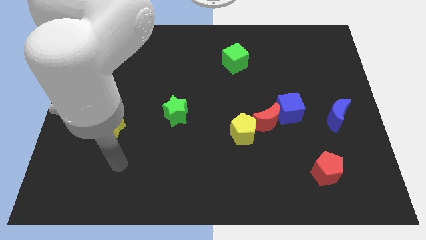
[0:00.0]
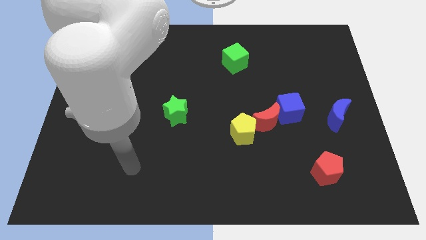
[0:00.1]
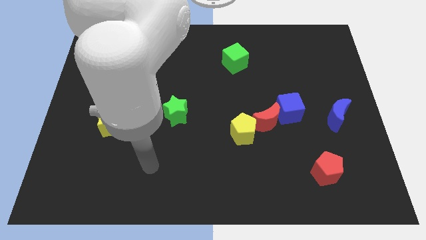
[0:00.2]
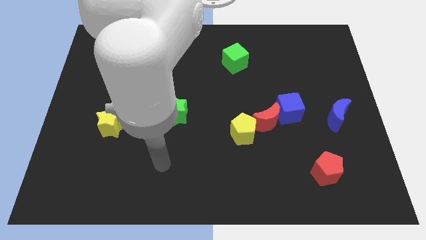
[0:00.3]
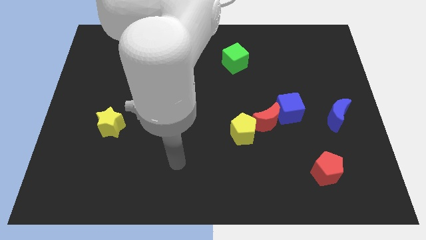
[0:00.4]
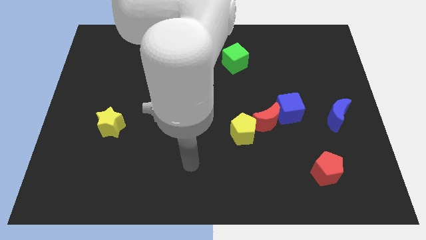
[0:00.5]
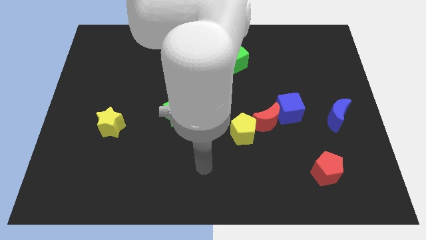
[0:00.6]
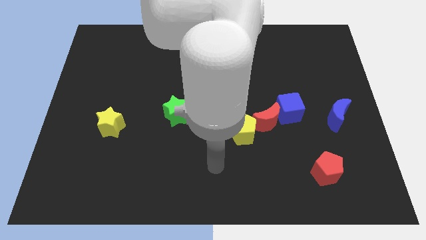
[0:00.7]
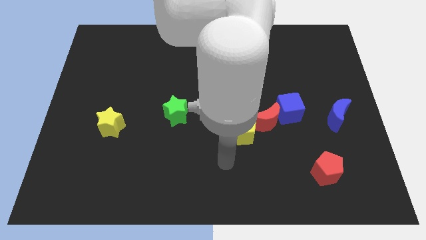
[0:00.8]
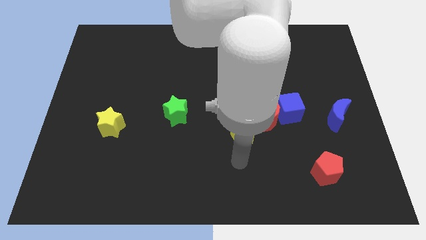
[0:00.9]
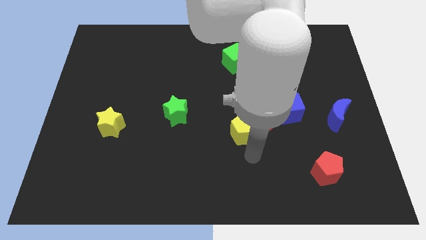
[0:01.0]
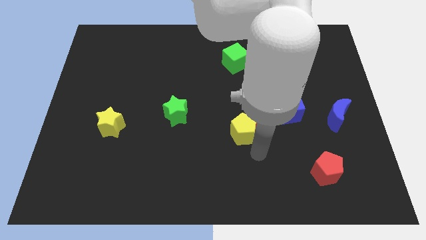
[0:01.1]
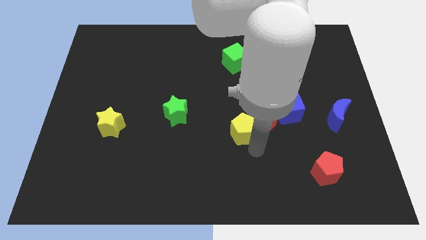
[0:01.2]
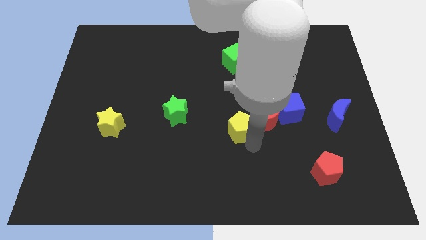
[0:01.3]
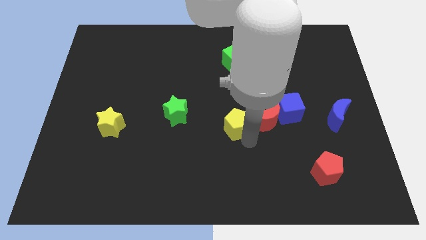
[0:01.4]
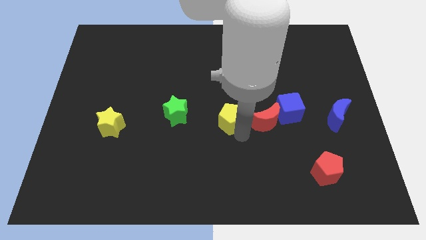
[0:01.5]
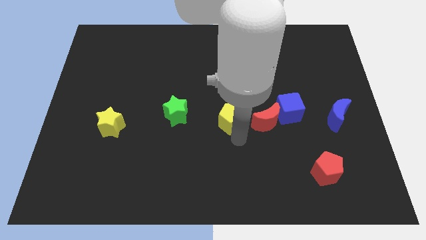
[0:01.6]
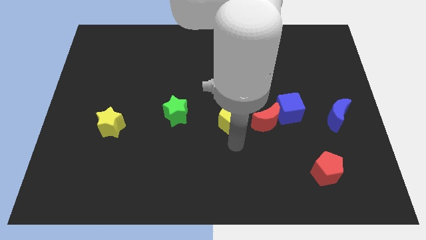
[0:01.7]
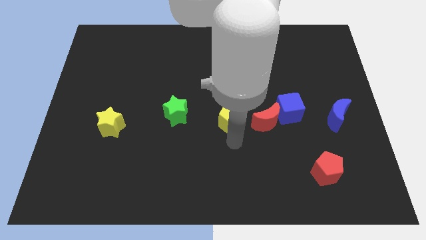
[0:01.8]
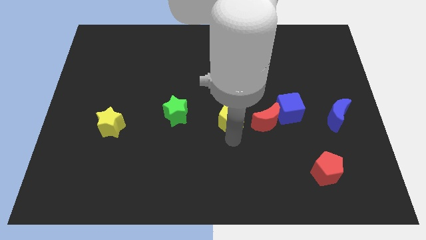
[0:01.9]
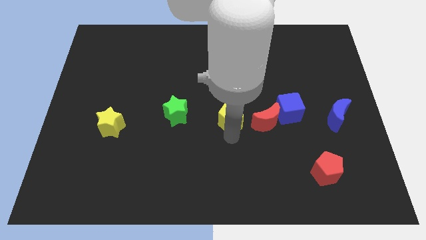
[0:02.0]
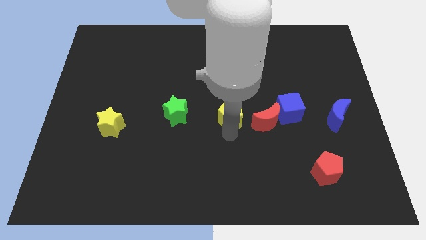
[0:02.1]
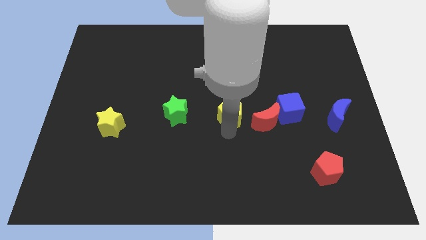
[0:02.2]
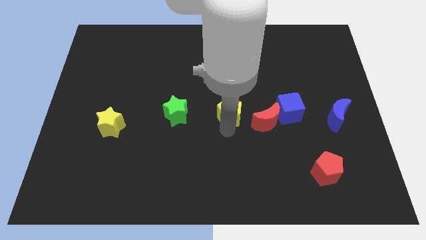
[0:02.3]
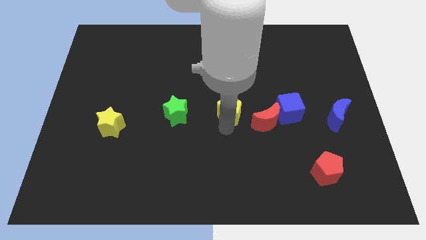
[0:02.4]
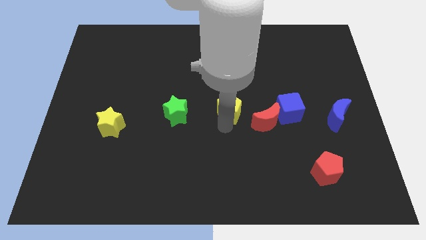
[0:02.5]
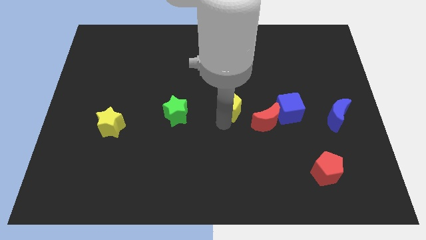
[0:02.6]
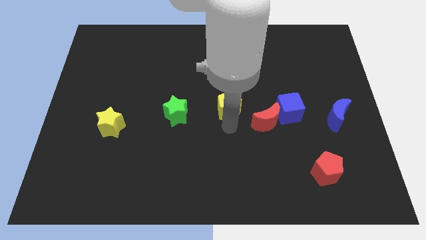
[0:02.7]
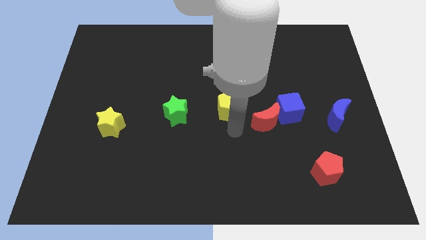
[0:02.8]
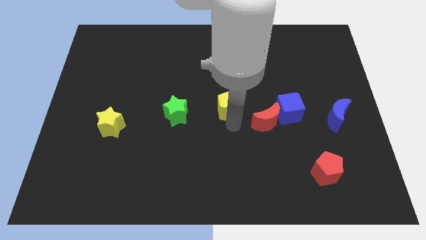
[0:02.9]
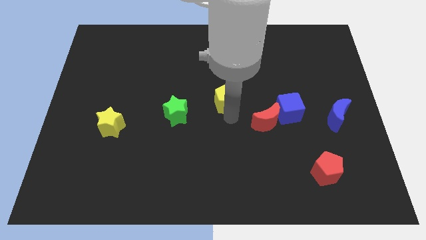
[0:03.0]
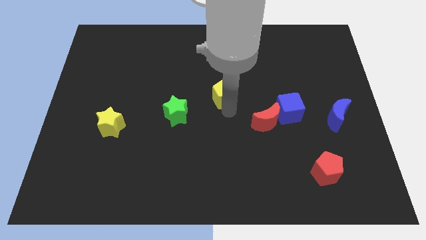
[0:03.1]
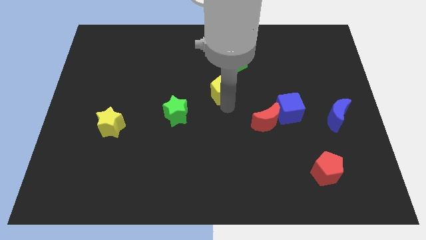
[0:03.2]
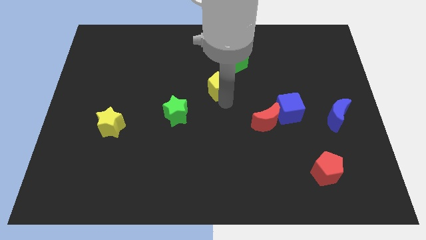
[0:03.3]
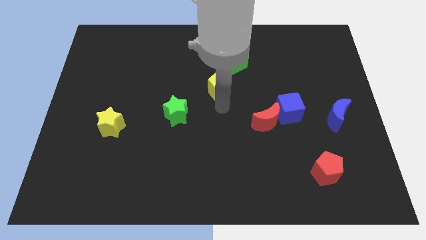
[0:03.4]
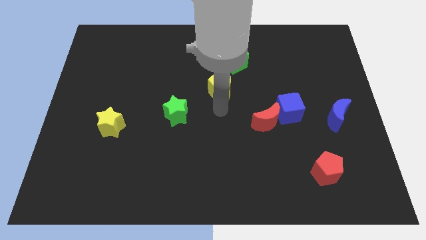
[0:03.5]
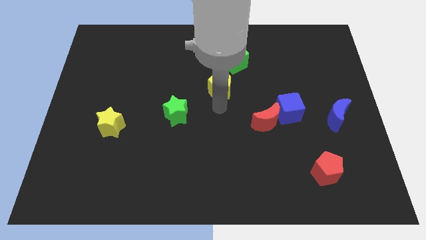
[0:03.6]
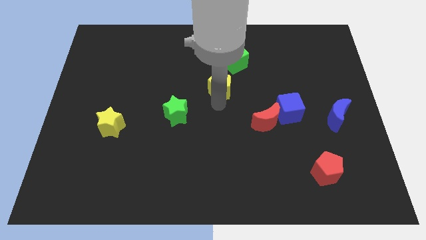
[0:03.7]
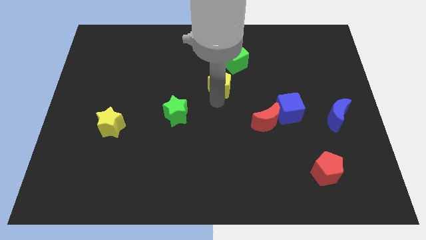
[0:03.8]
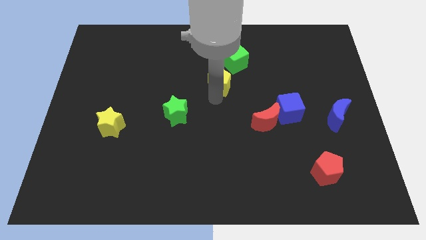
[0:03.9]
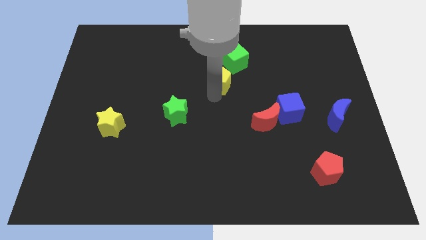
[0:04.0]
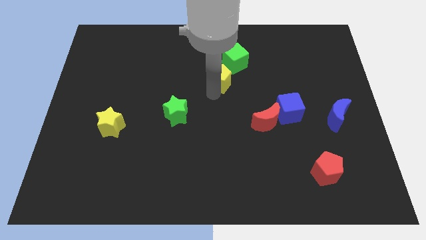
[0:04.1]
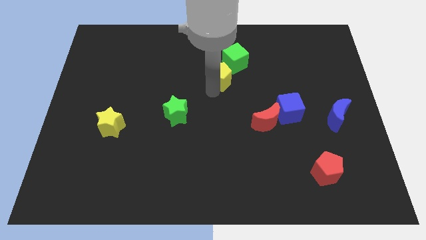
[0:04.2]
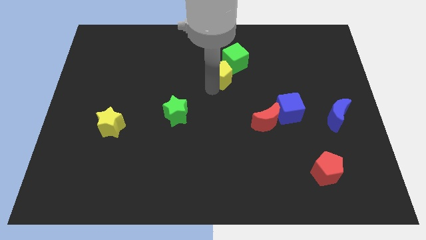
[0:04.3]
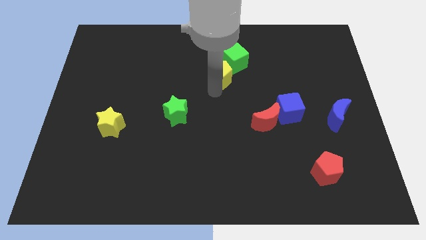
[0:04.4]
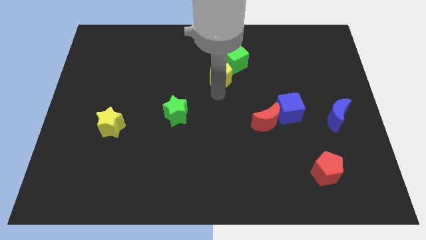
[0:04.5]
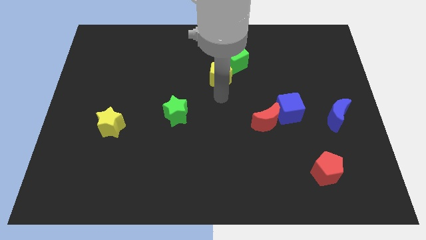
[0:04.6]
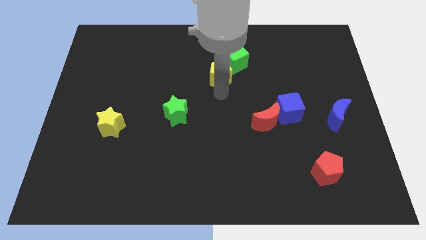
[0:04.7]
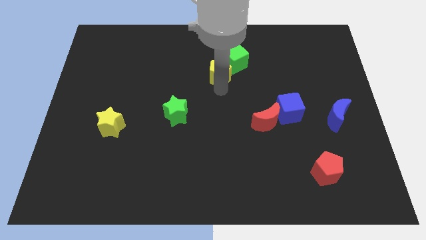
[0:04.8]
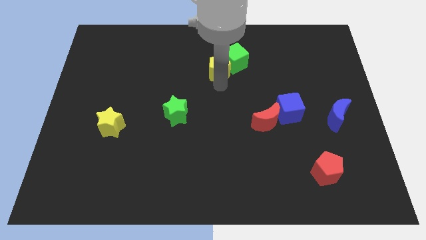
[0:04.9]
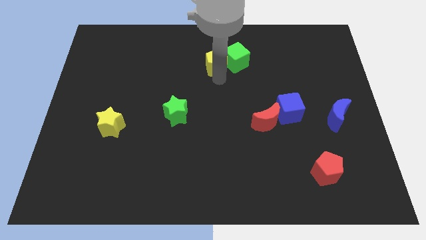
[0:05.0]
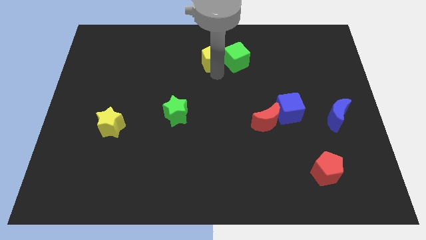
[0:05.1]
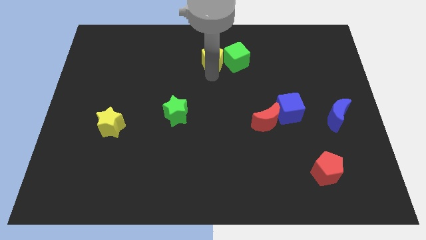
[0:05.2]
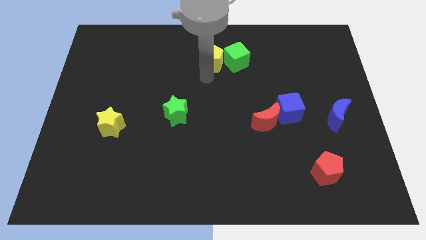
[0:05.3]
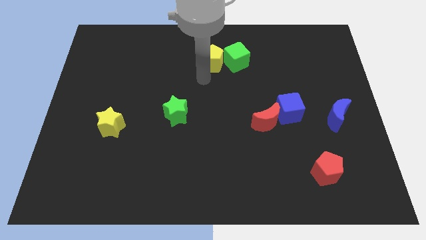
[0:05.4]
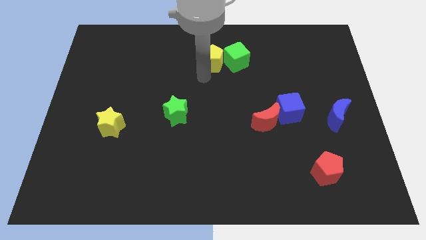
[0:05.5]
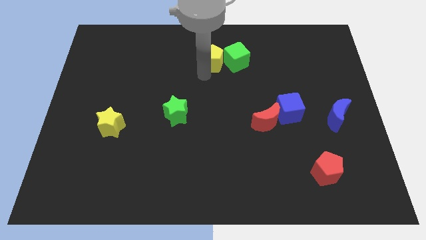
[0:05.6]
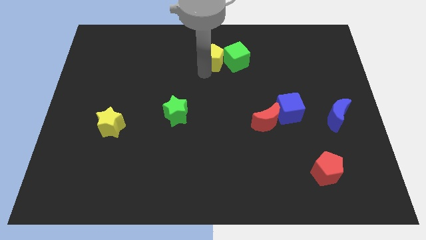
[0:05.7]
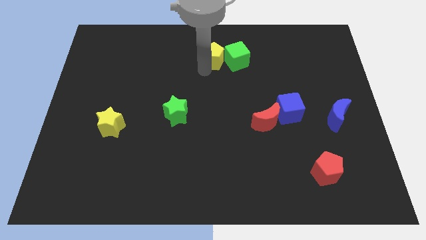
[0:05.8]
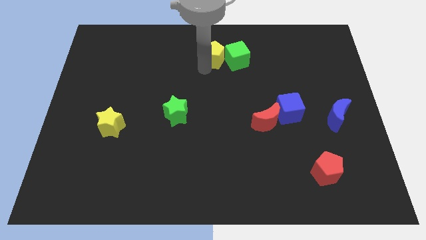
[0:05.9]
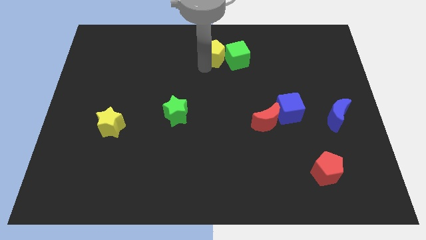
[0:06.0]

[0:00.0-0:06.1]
put the yellow pentagon to the top
